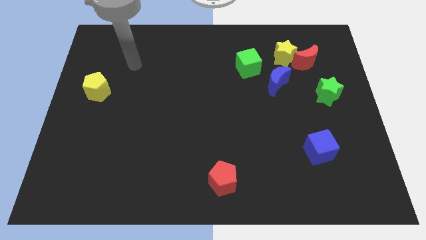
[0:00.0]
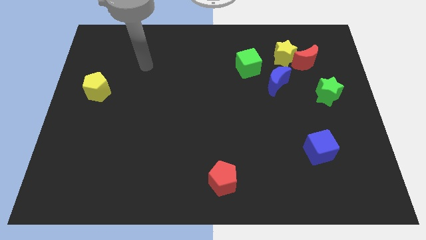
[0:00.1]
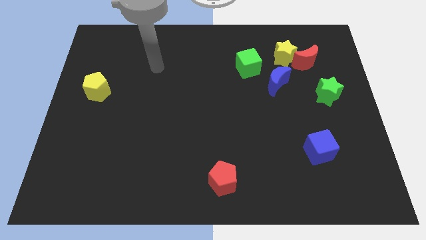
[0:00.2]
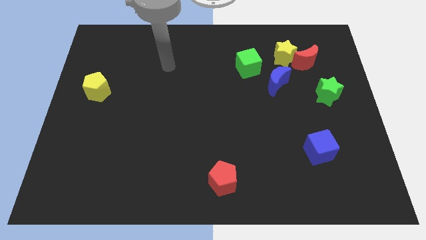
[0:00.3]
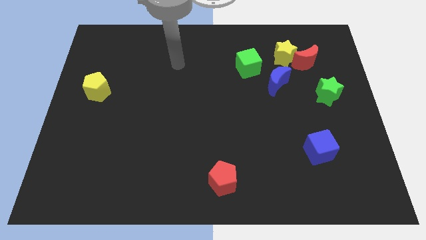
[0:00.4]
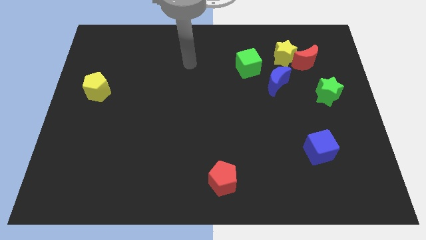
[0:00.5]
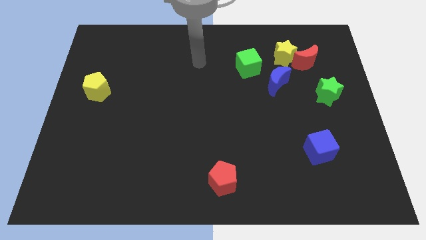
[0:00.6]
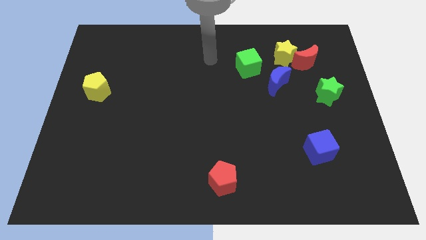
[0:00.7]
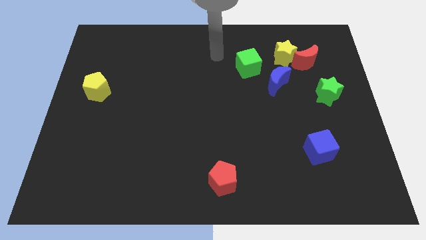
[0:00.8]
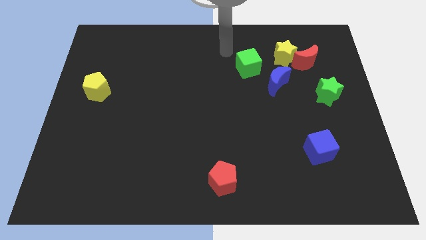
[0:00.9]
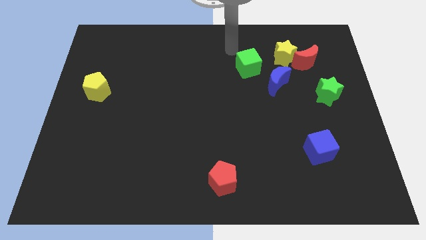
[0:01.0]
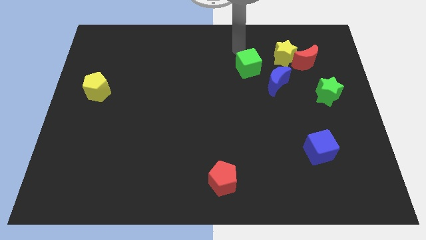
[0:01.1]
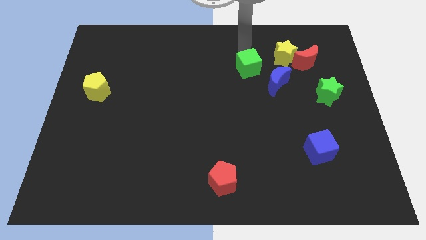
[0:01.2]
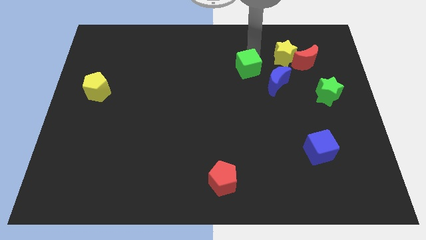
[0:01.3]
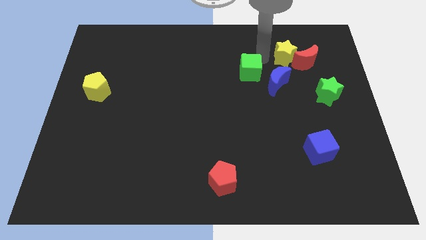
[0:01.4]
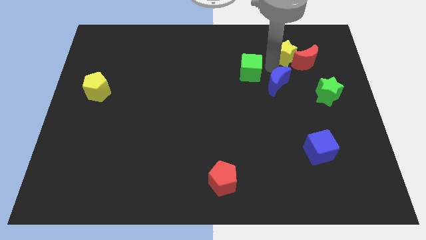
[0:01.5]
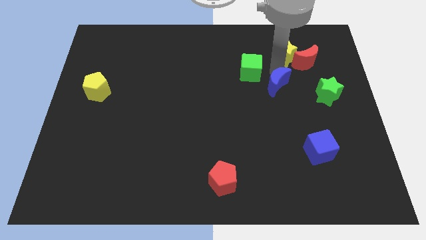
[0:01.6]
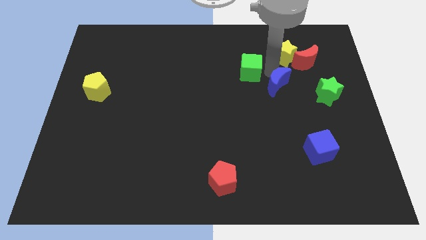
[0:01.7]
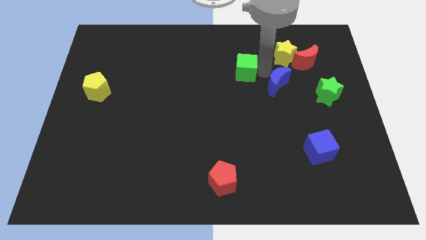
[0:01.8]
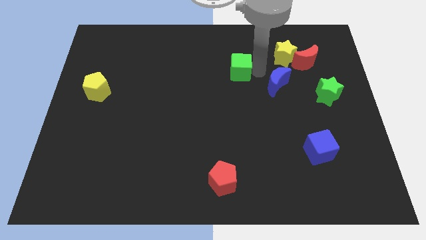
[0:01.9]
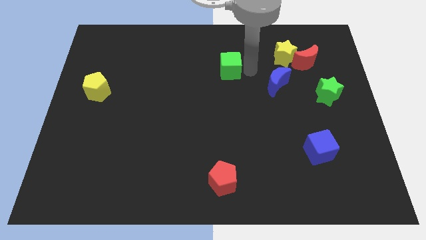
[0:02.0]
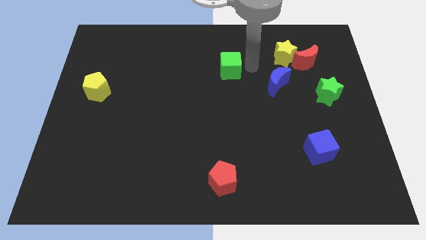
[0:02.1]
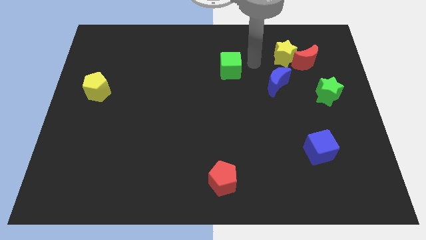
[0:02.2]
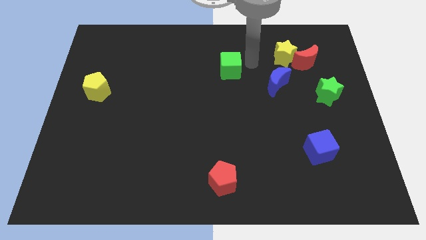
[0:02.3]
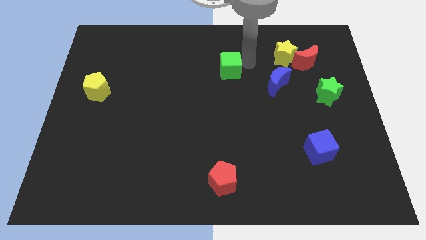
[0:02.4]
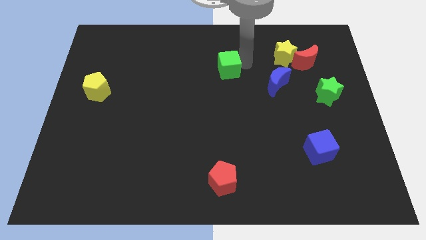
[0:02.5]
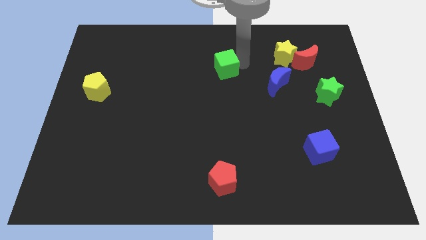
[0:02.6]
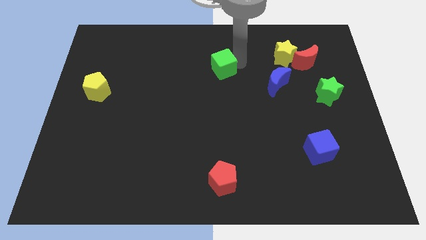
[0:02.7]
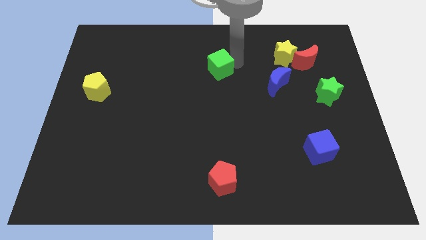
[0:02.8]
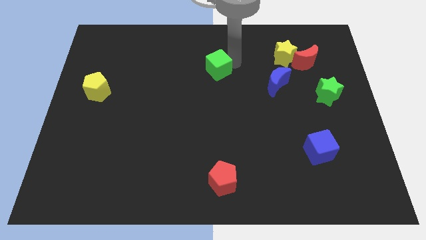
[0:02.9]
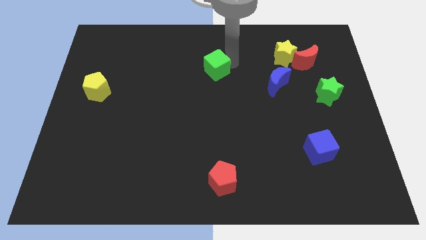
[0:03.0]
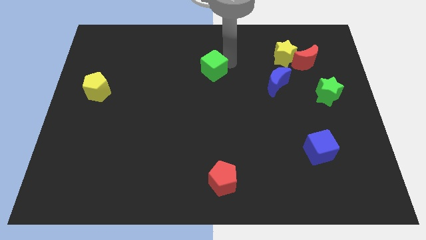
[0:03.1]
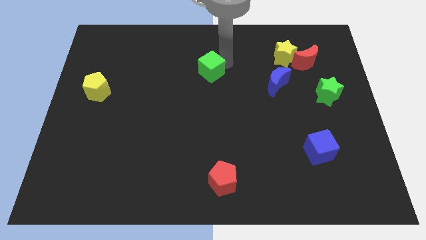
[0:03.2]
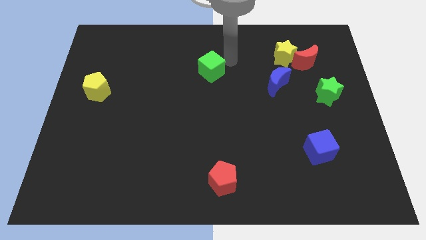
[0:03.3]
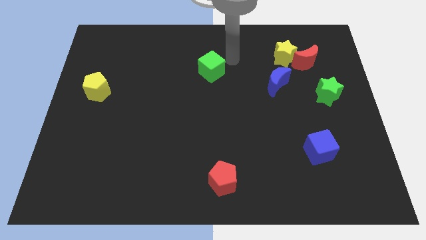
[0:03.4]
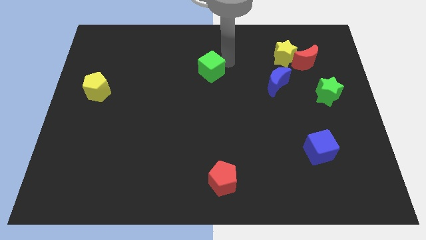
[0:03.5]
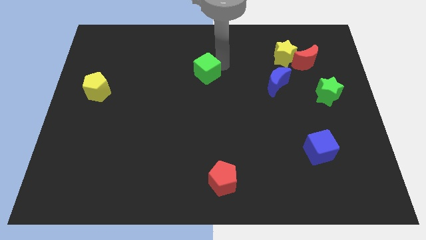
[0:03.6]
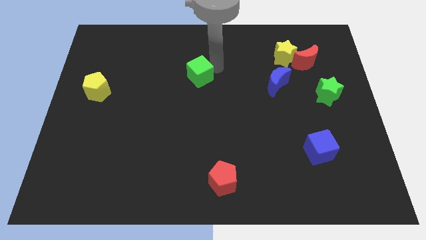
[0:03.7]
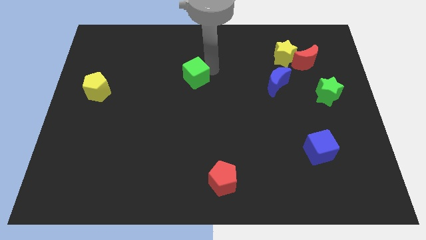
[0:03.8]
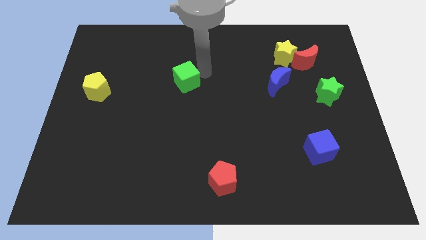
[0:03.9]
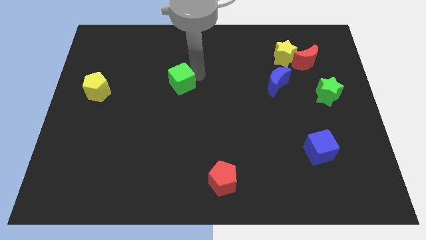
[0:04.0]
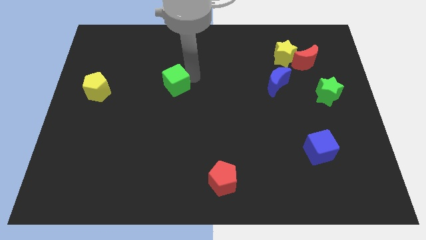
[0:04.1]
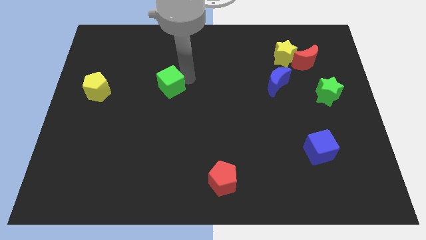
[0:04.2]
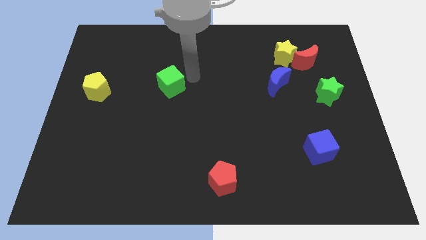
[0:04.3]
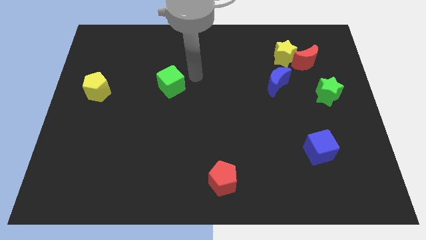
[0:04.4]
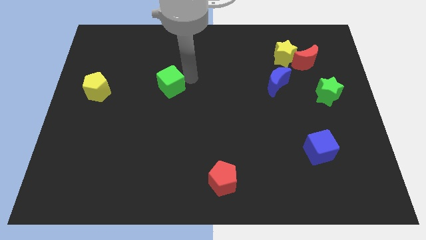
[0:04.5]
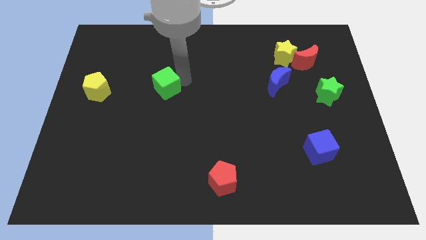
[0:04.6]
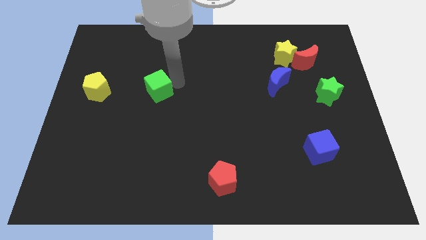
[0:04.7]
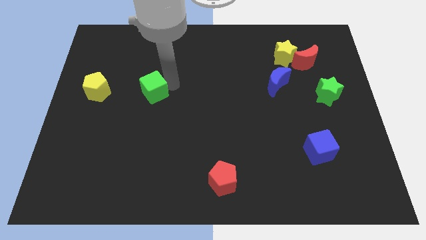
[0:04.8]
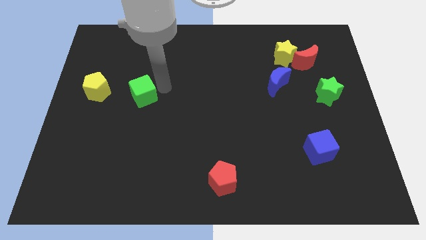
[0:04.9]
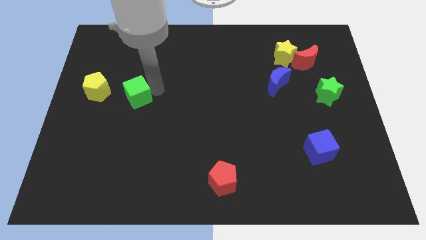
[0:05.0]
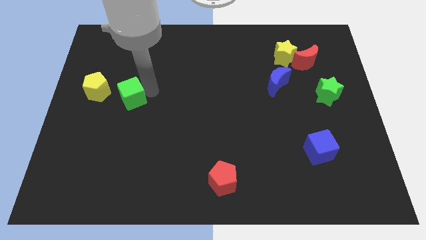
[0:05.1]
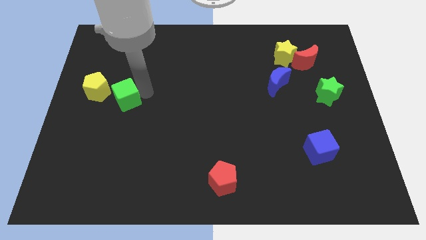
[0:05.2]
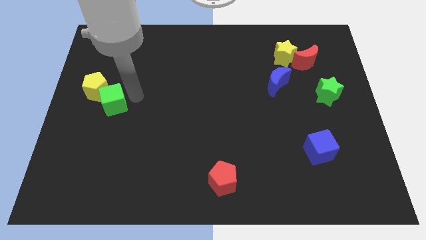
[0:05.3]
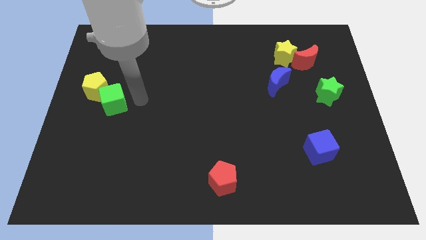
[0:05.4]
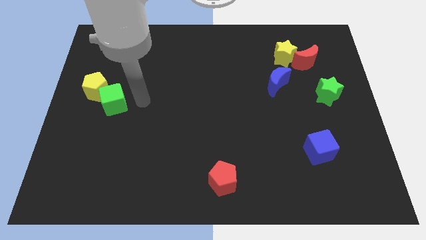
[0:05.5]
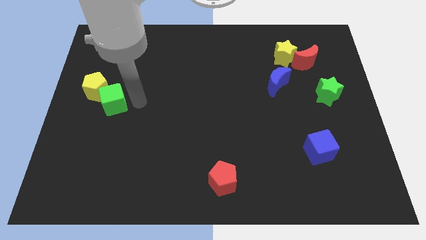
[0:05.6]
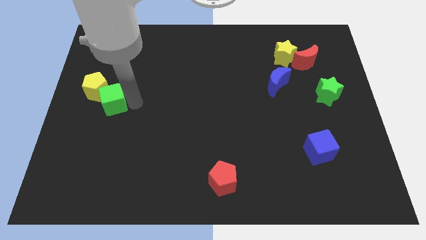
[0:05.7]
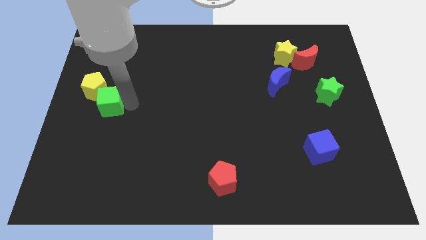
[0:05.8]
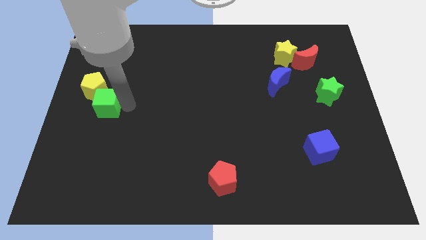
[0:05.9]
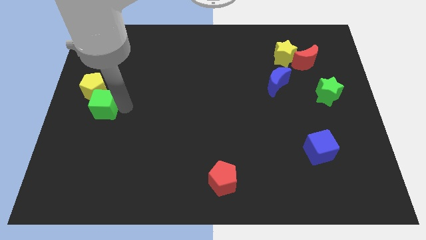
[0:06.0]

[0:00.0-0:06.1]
slide the green cube to the center left

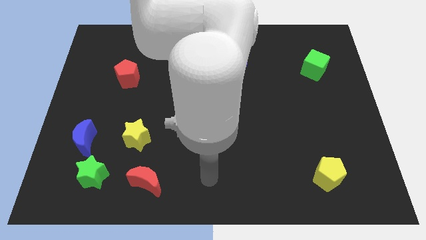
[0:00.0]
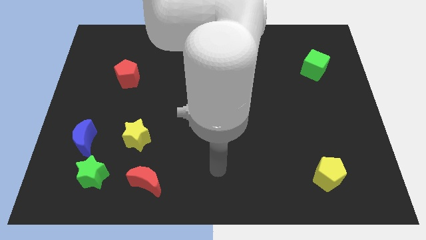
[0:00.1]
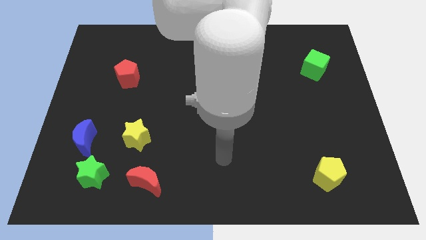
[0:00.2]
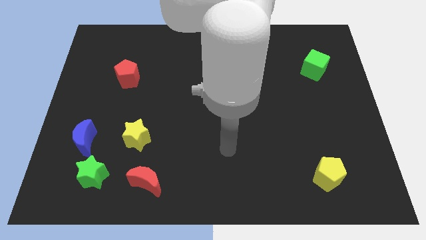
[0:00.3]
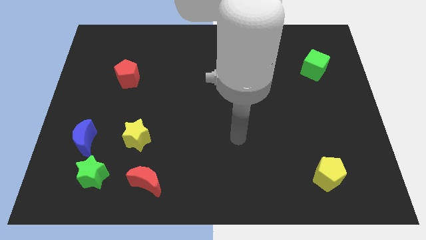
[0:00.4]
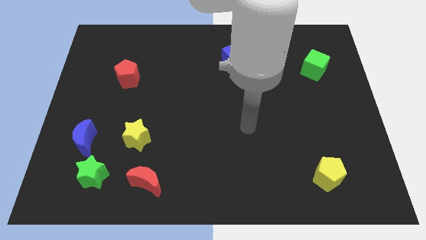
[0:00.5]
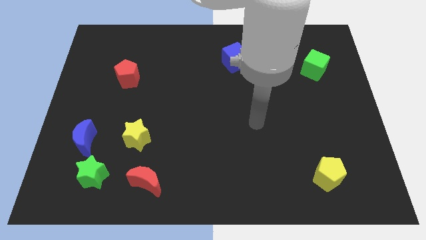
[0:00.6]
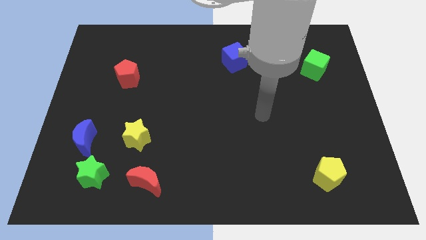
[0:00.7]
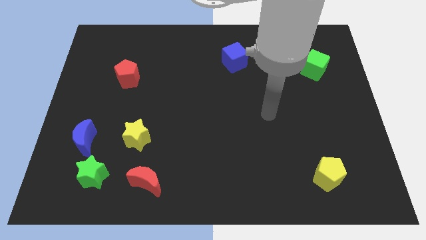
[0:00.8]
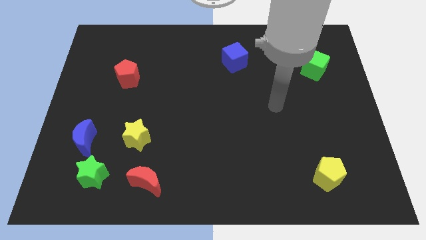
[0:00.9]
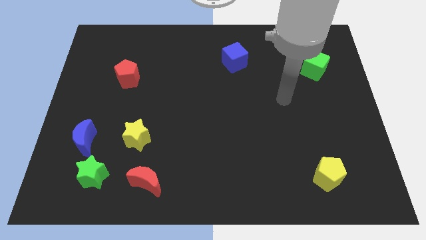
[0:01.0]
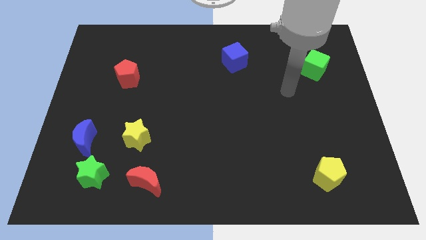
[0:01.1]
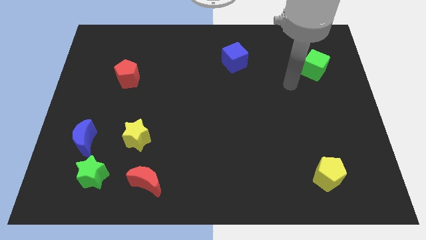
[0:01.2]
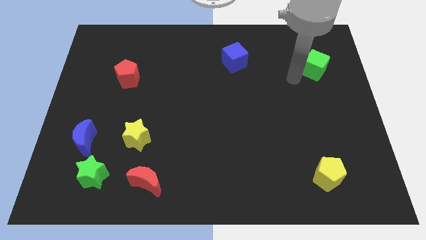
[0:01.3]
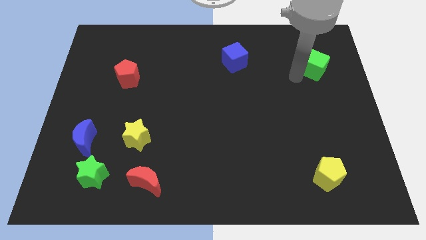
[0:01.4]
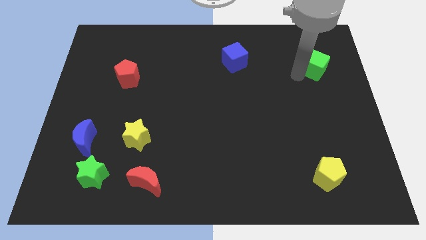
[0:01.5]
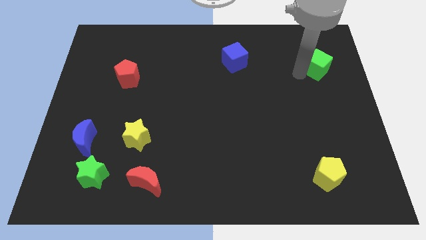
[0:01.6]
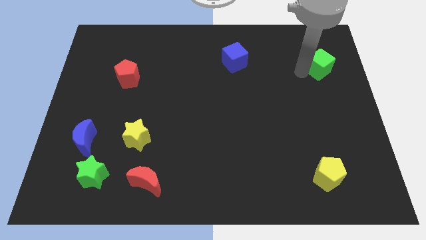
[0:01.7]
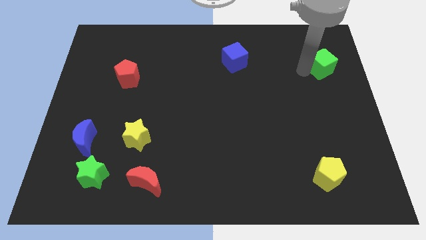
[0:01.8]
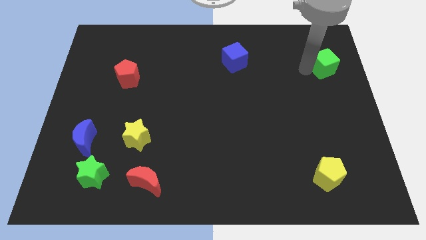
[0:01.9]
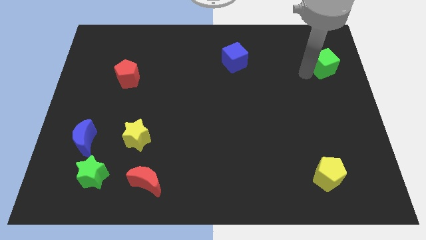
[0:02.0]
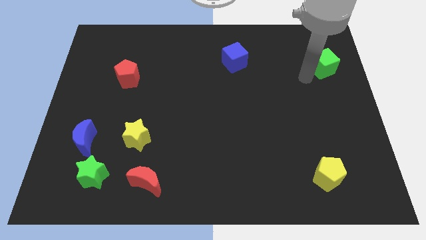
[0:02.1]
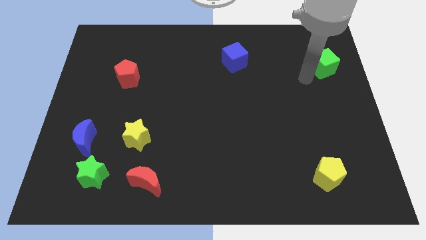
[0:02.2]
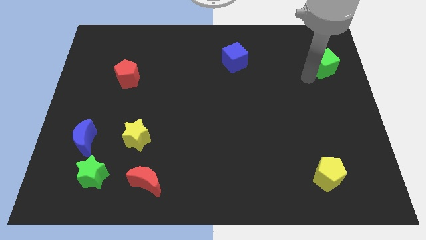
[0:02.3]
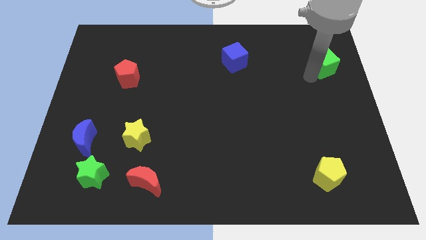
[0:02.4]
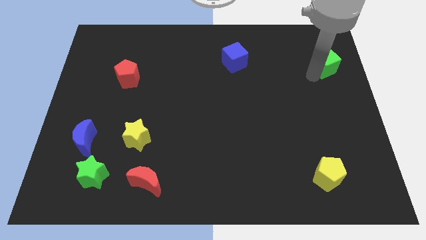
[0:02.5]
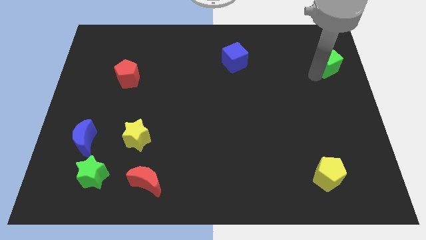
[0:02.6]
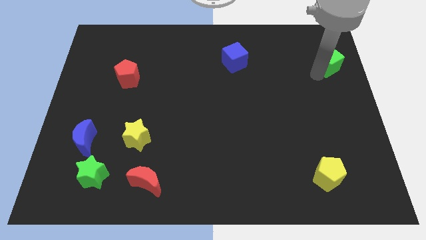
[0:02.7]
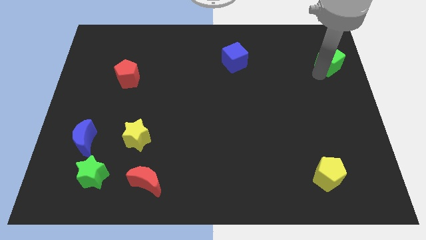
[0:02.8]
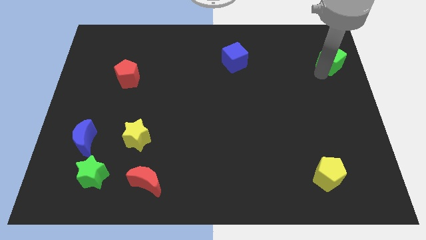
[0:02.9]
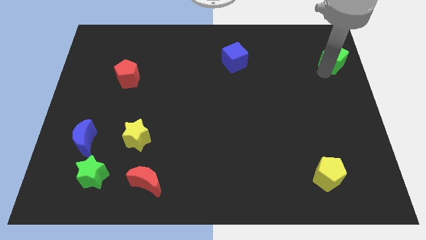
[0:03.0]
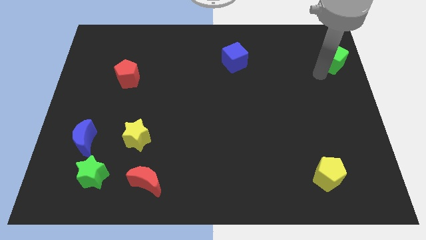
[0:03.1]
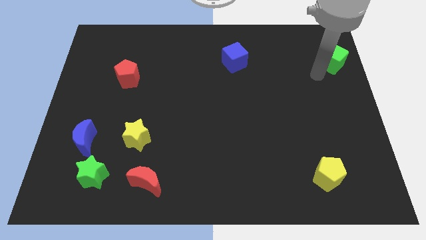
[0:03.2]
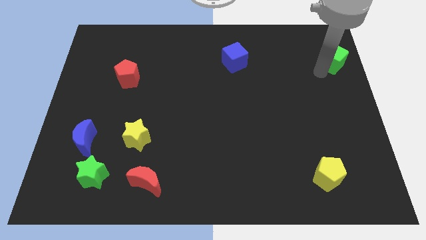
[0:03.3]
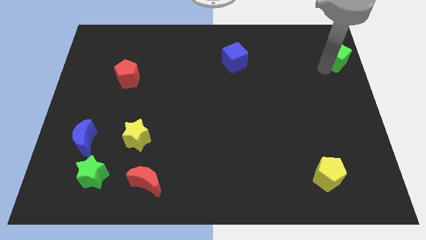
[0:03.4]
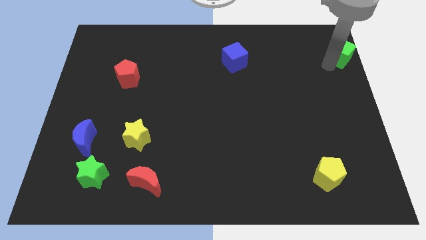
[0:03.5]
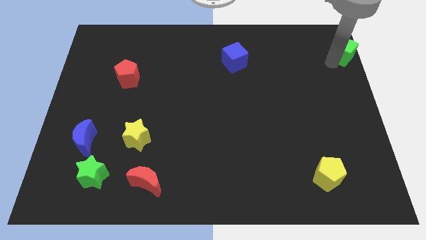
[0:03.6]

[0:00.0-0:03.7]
slide the green cube to the top right corner
